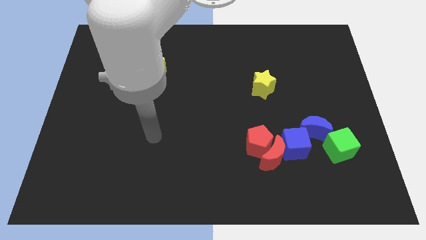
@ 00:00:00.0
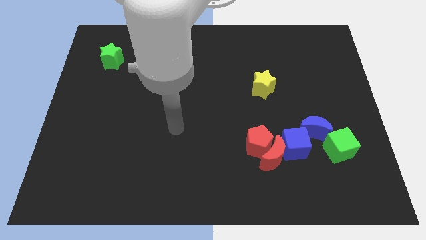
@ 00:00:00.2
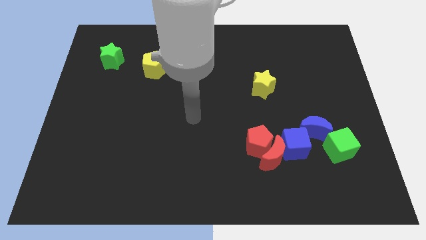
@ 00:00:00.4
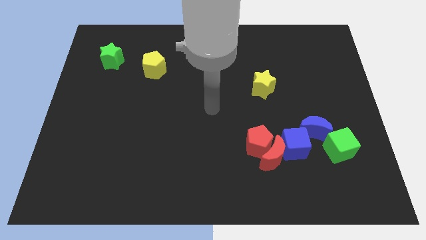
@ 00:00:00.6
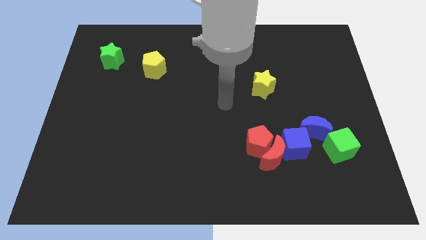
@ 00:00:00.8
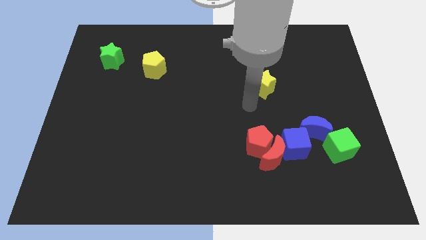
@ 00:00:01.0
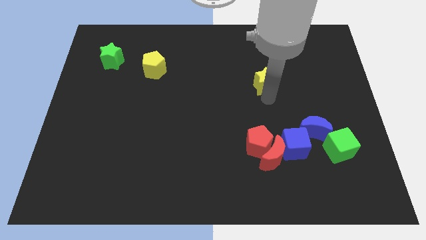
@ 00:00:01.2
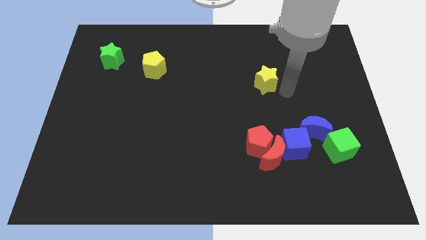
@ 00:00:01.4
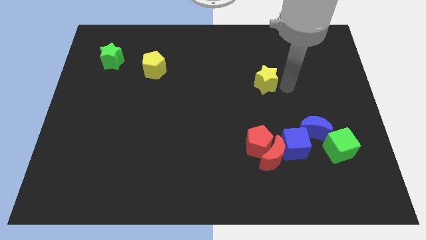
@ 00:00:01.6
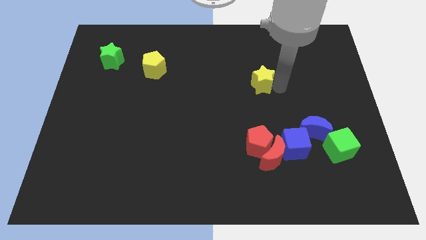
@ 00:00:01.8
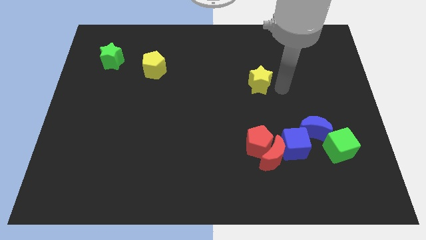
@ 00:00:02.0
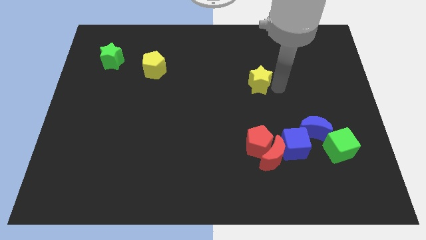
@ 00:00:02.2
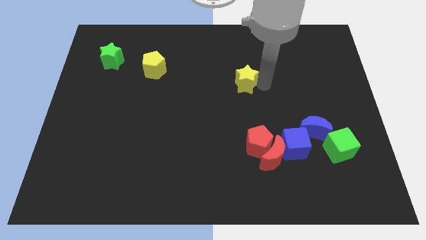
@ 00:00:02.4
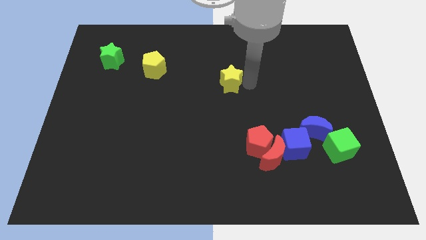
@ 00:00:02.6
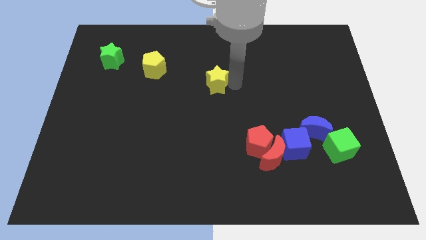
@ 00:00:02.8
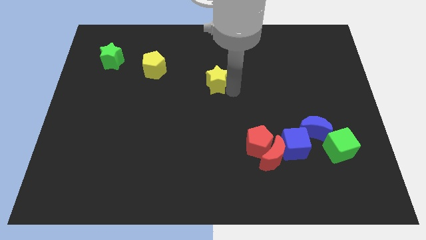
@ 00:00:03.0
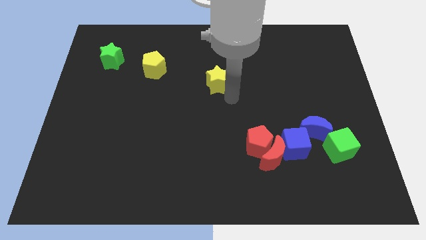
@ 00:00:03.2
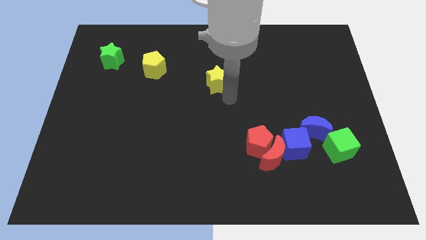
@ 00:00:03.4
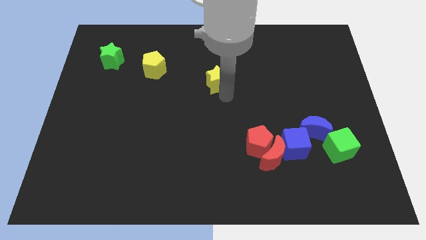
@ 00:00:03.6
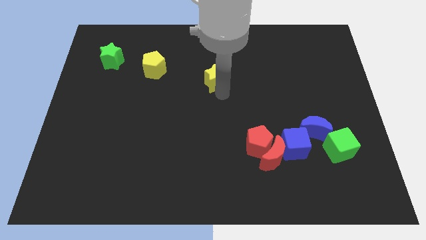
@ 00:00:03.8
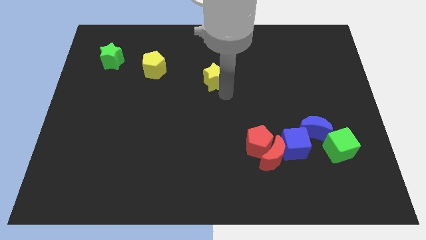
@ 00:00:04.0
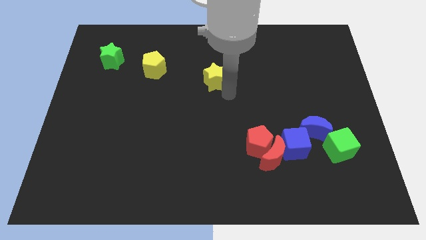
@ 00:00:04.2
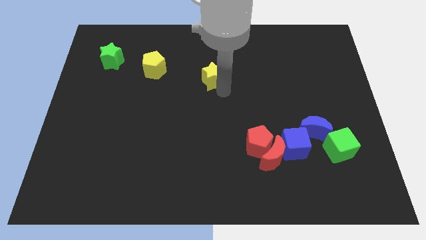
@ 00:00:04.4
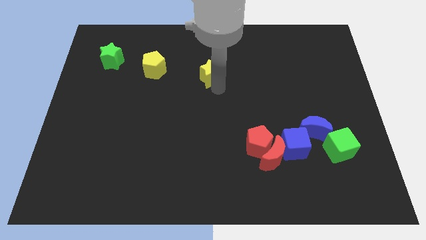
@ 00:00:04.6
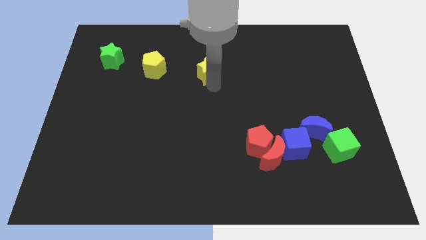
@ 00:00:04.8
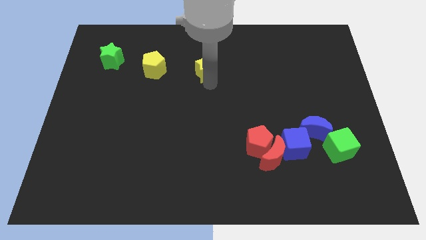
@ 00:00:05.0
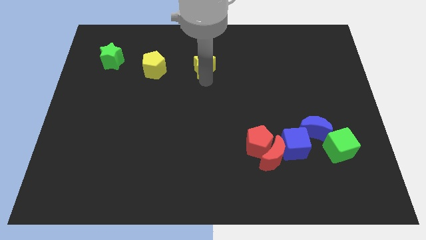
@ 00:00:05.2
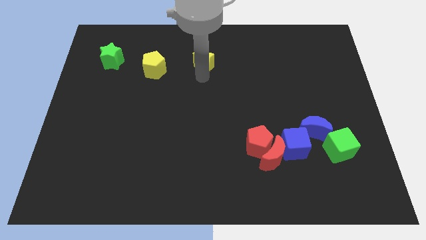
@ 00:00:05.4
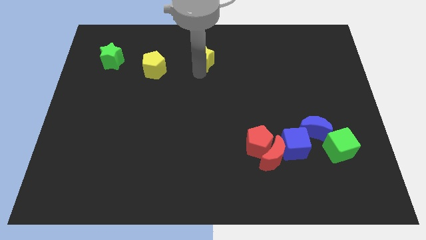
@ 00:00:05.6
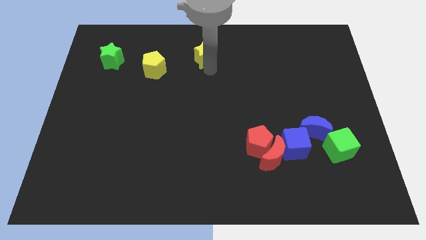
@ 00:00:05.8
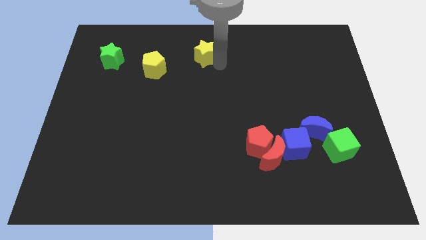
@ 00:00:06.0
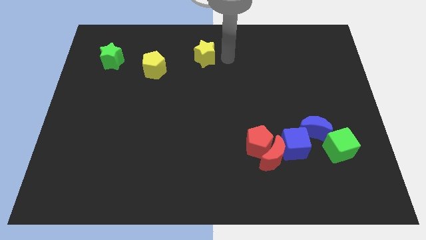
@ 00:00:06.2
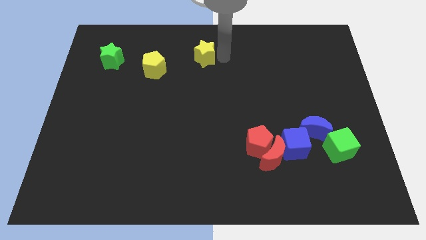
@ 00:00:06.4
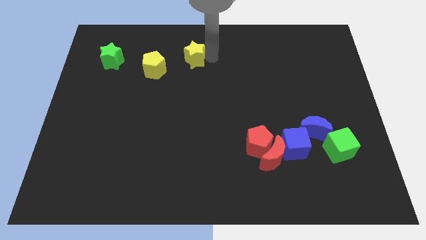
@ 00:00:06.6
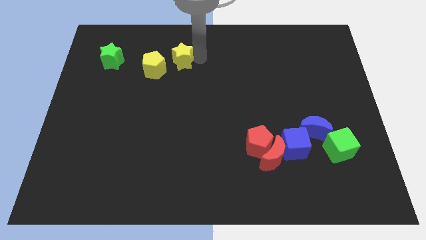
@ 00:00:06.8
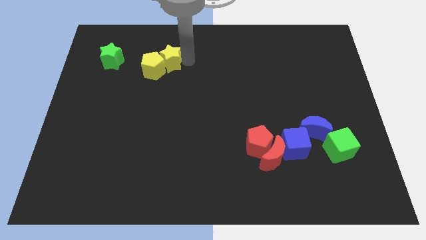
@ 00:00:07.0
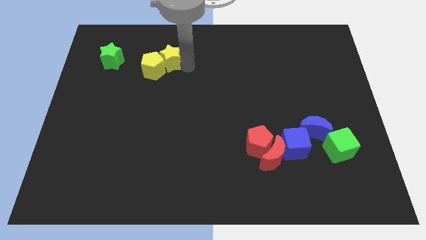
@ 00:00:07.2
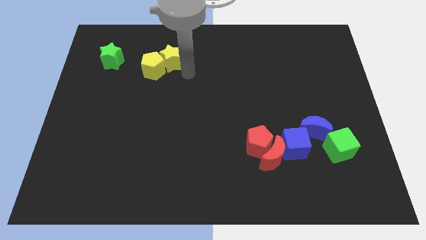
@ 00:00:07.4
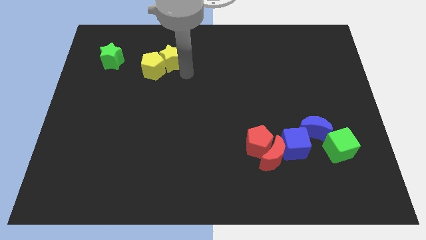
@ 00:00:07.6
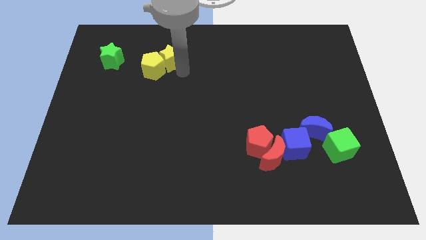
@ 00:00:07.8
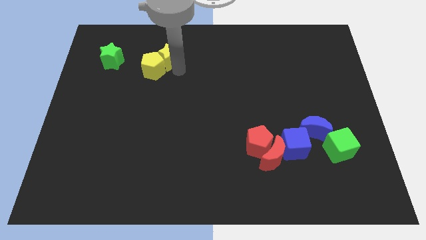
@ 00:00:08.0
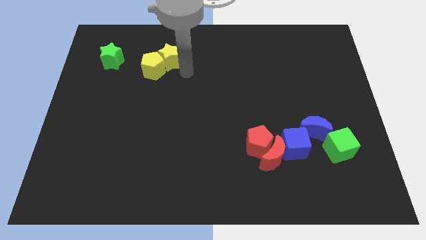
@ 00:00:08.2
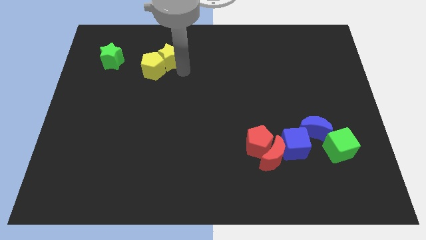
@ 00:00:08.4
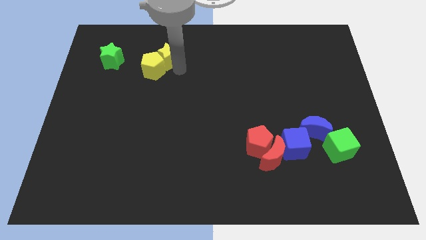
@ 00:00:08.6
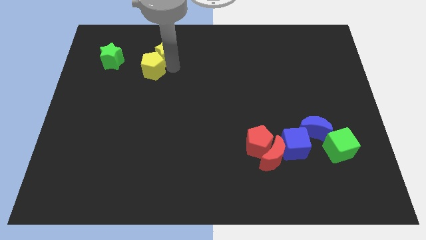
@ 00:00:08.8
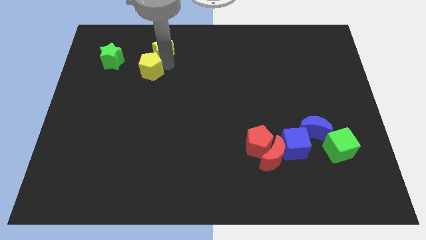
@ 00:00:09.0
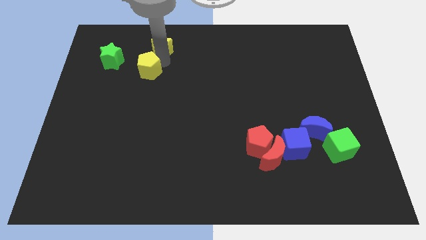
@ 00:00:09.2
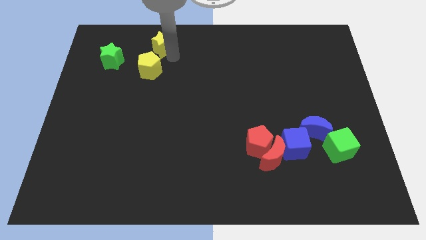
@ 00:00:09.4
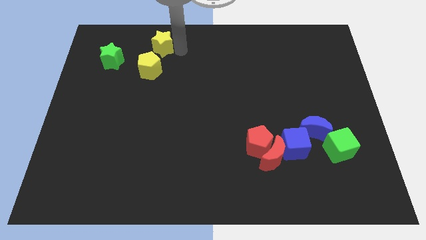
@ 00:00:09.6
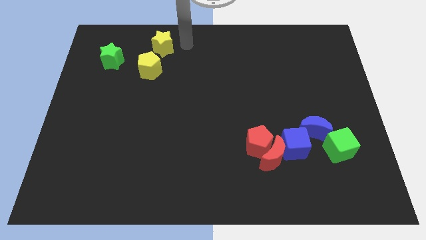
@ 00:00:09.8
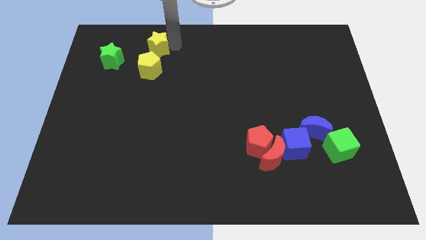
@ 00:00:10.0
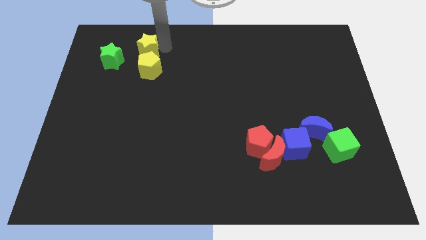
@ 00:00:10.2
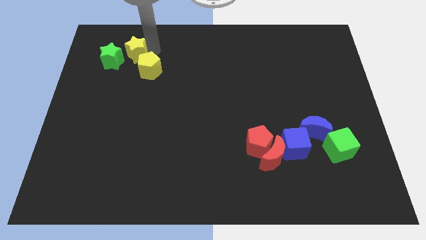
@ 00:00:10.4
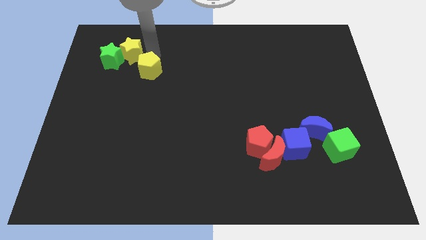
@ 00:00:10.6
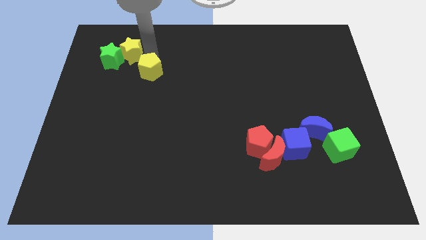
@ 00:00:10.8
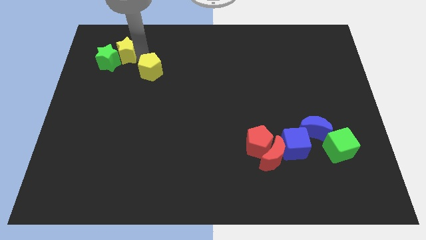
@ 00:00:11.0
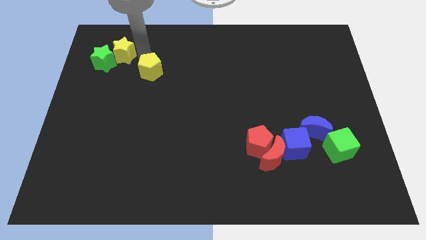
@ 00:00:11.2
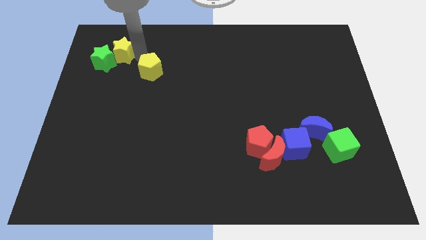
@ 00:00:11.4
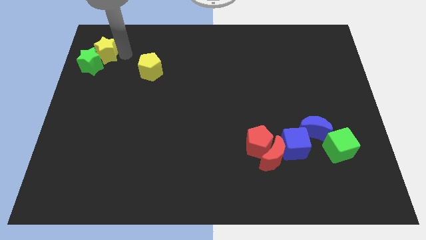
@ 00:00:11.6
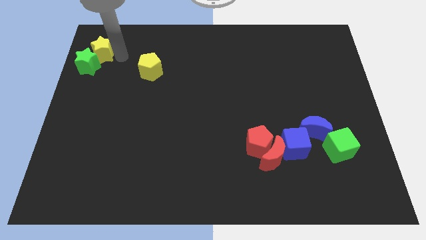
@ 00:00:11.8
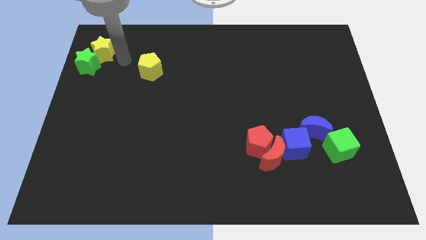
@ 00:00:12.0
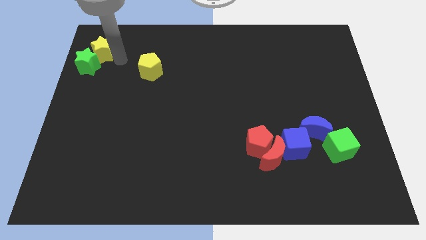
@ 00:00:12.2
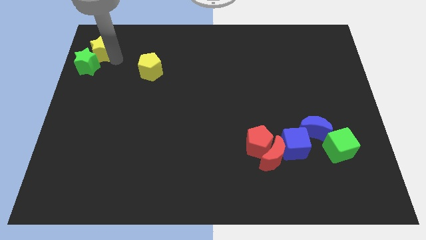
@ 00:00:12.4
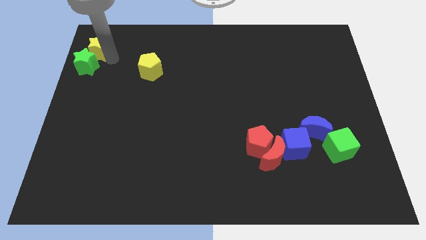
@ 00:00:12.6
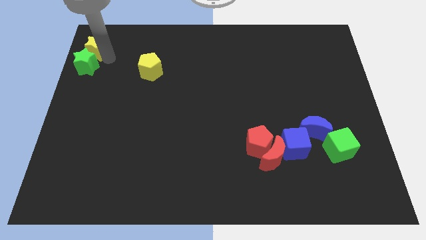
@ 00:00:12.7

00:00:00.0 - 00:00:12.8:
put the yellow star to the upper left corner

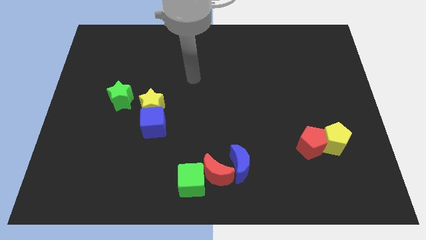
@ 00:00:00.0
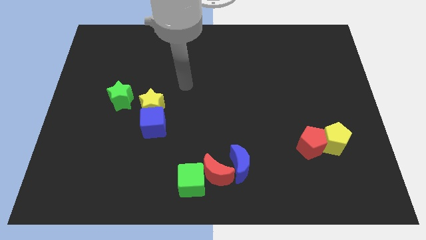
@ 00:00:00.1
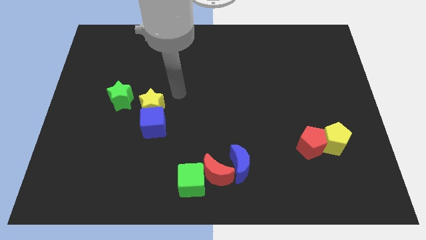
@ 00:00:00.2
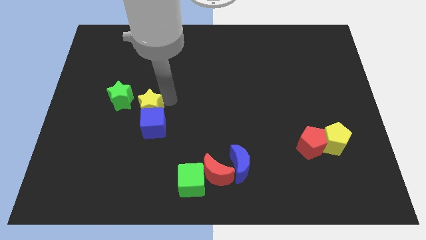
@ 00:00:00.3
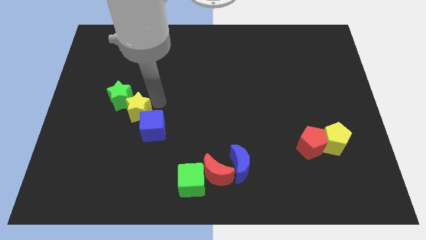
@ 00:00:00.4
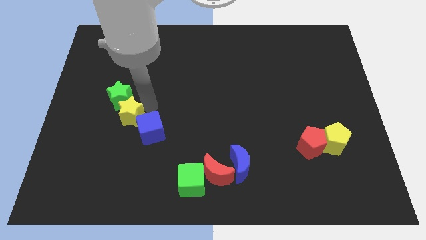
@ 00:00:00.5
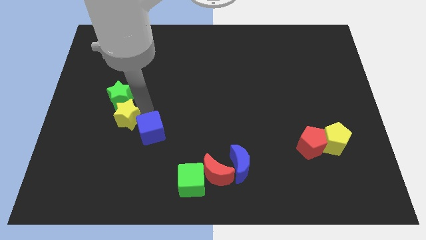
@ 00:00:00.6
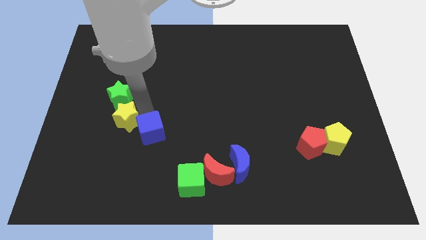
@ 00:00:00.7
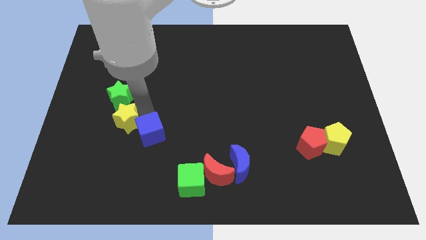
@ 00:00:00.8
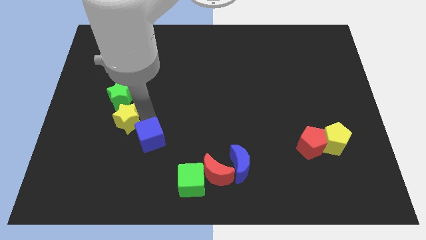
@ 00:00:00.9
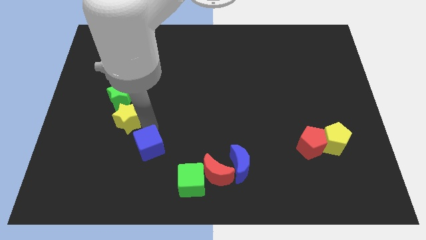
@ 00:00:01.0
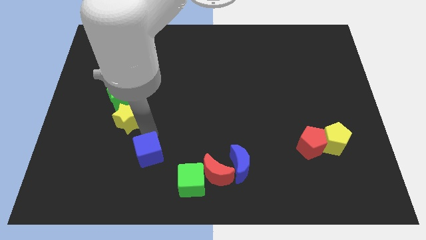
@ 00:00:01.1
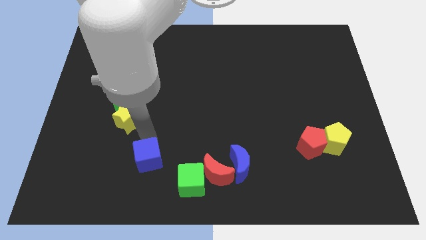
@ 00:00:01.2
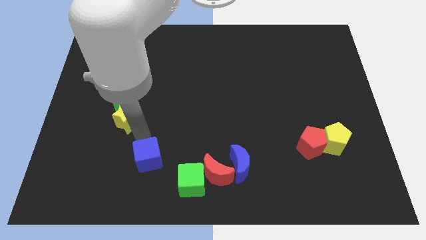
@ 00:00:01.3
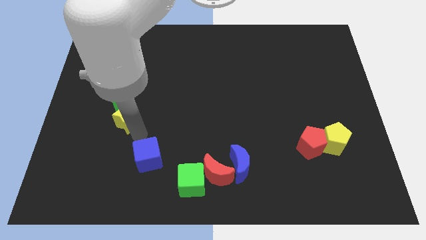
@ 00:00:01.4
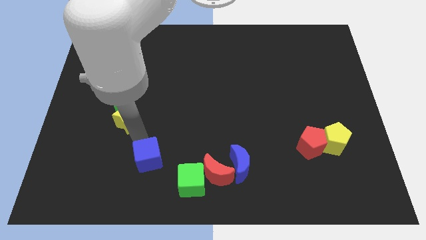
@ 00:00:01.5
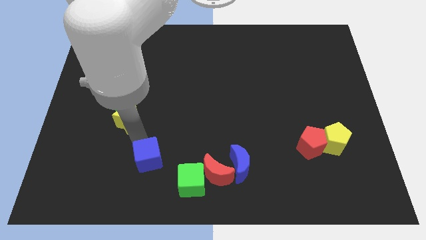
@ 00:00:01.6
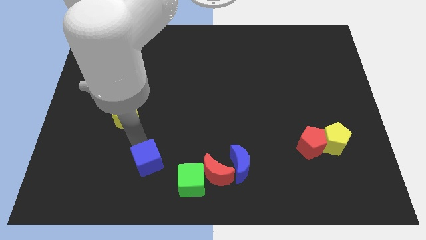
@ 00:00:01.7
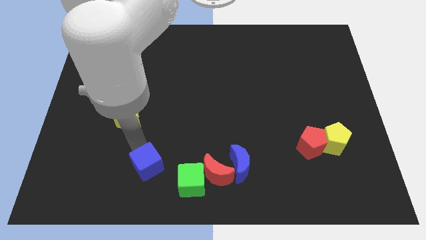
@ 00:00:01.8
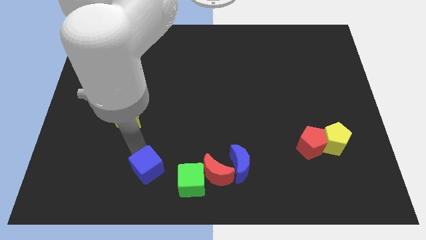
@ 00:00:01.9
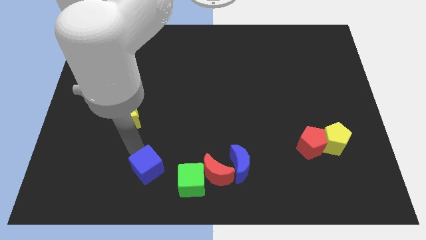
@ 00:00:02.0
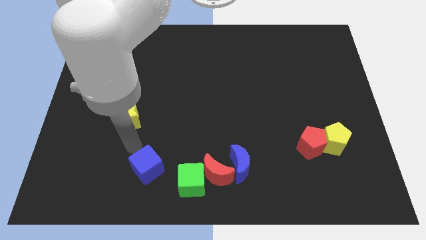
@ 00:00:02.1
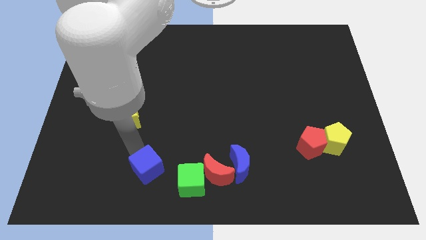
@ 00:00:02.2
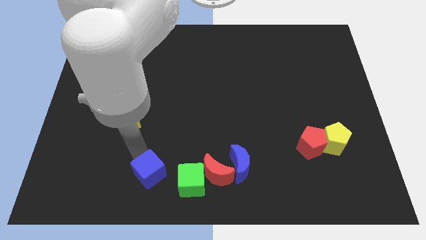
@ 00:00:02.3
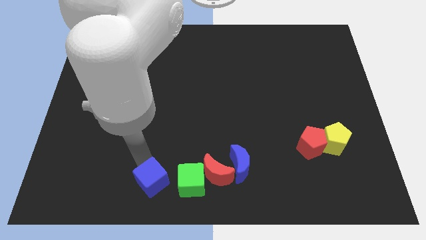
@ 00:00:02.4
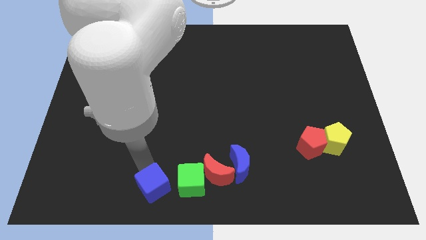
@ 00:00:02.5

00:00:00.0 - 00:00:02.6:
slide the blue cube to the bottom
